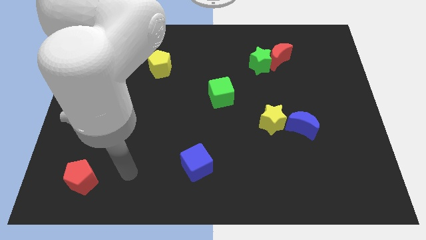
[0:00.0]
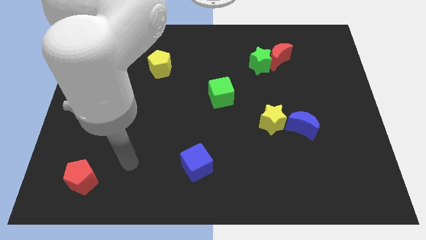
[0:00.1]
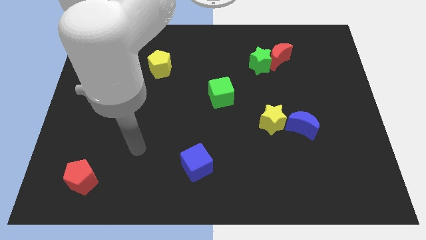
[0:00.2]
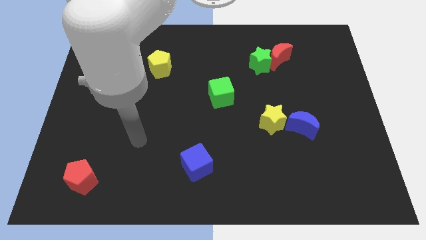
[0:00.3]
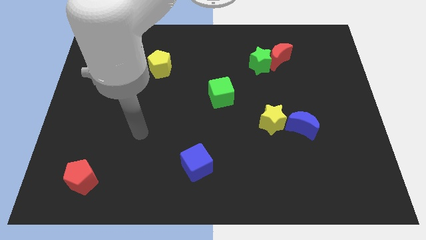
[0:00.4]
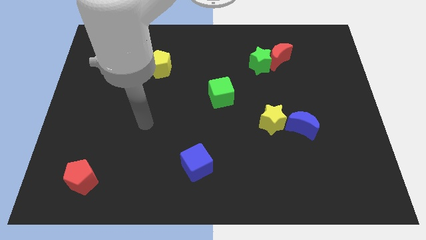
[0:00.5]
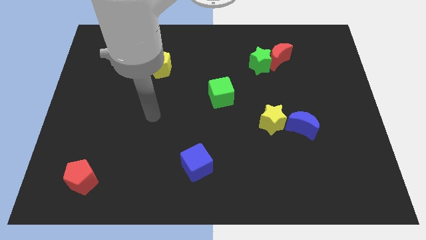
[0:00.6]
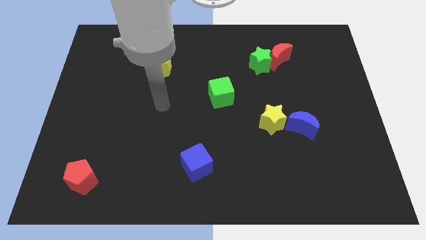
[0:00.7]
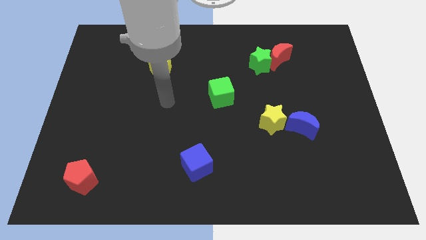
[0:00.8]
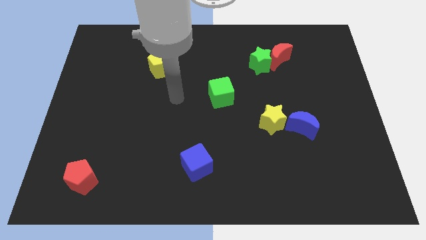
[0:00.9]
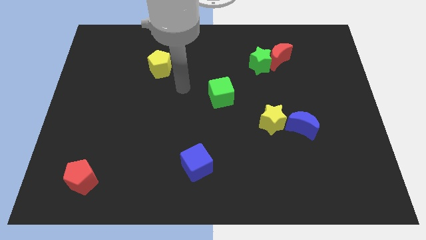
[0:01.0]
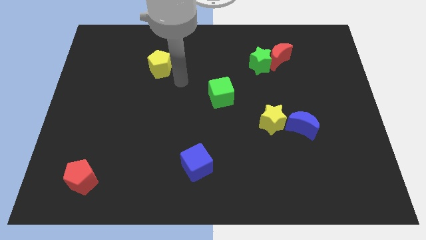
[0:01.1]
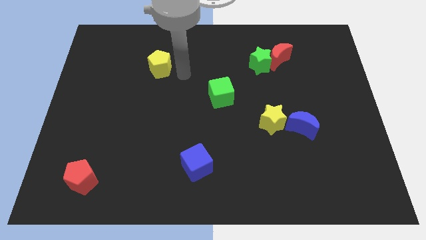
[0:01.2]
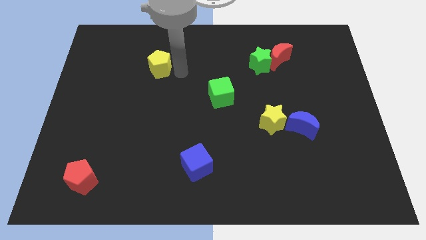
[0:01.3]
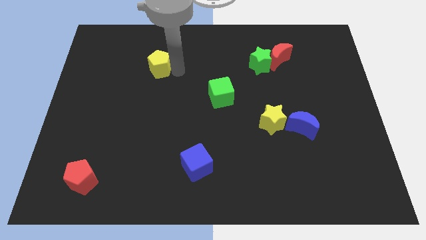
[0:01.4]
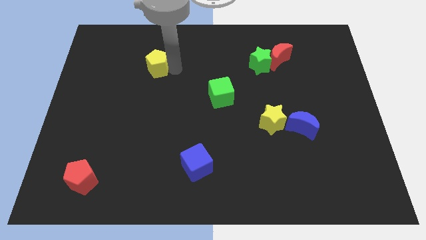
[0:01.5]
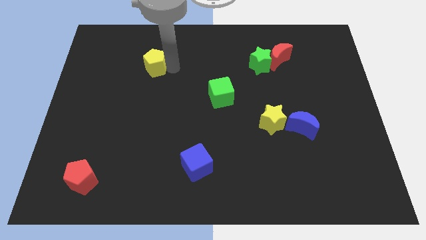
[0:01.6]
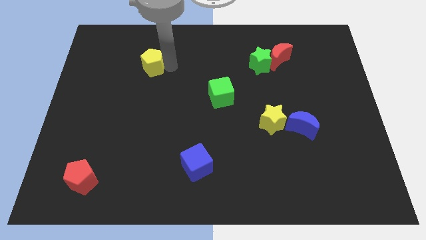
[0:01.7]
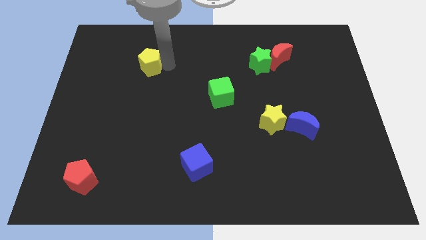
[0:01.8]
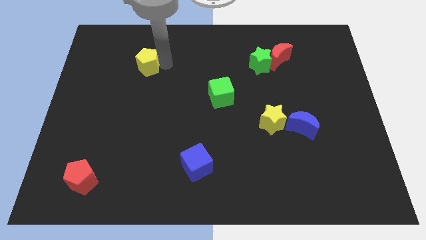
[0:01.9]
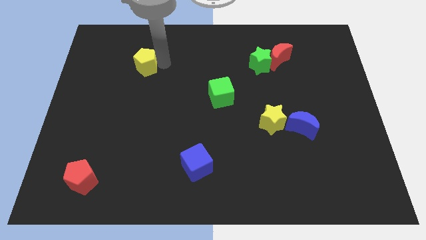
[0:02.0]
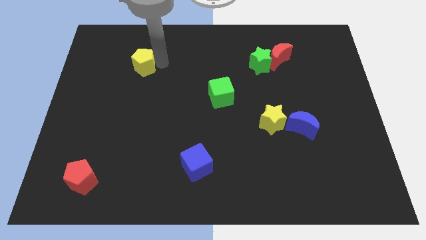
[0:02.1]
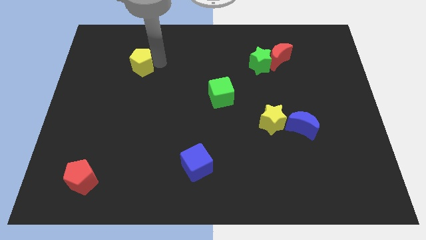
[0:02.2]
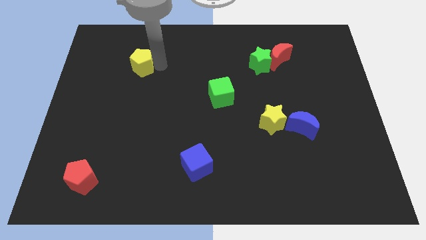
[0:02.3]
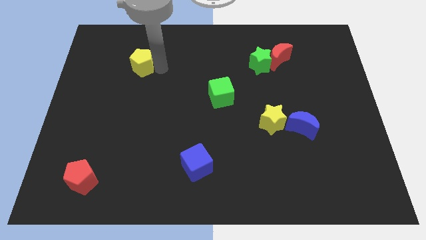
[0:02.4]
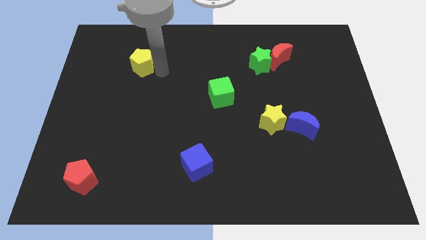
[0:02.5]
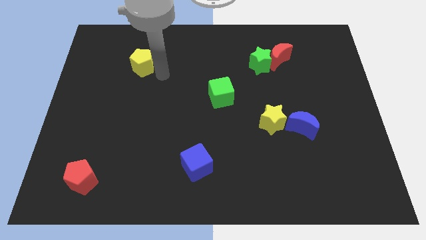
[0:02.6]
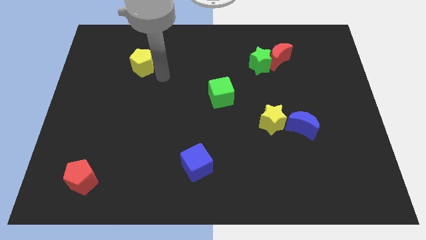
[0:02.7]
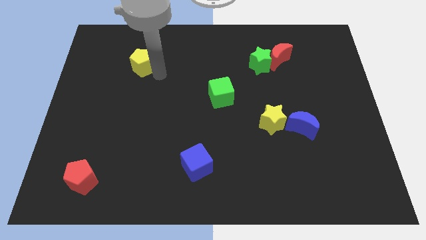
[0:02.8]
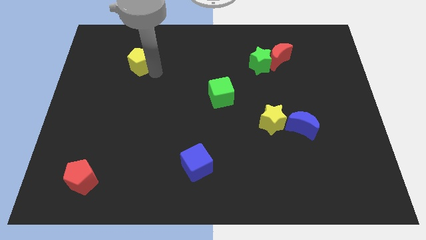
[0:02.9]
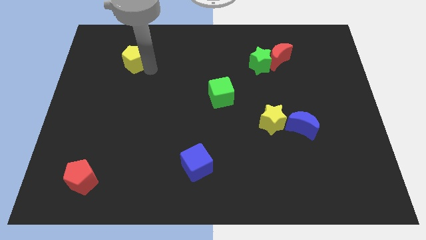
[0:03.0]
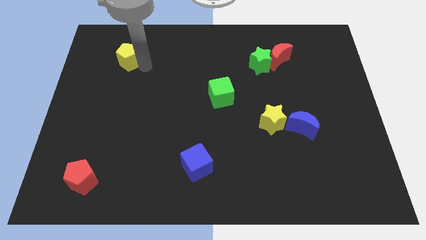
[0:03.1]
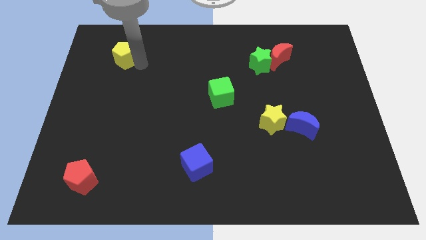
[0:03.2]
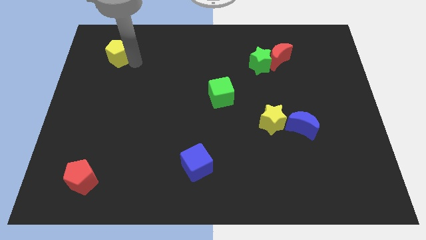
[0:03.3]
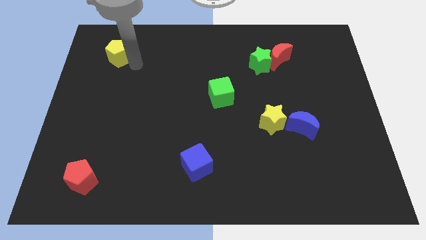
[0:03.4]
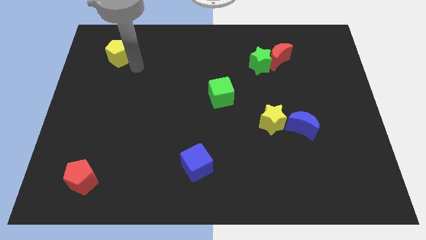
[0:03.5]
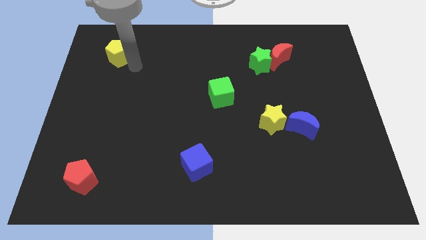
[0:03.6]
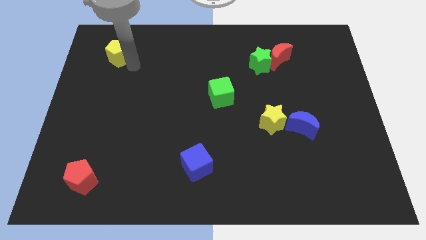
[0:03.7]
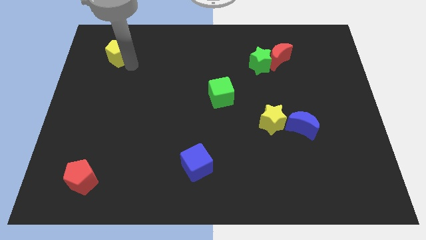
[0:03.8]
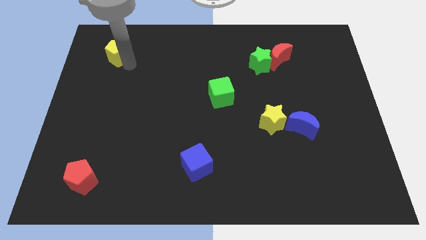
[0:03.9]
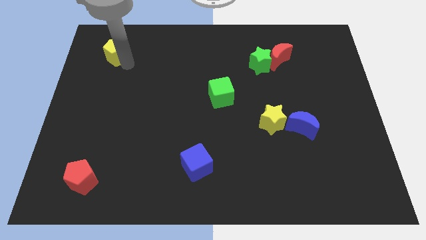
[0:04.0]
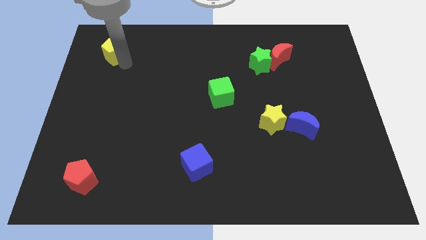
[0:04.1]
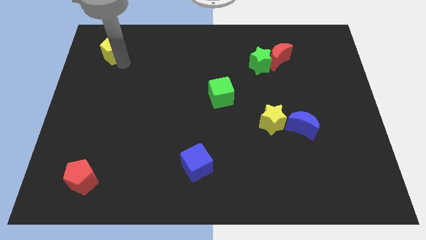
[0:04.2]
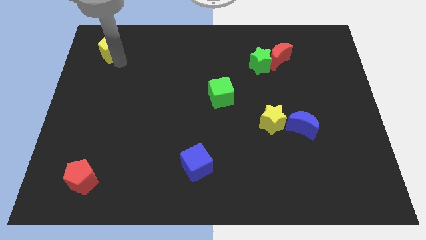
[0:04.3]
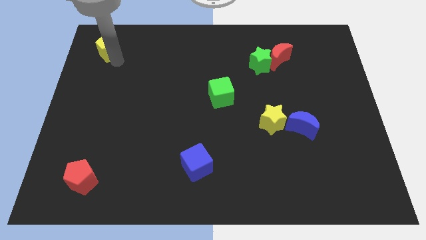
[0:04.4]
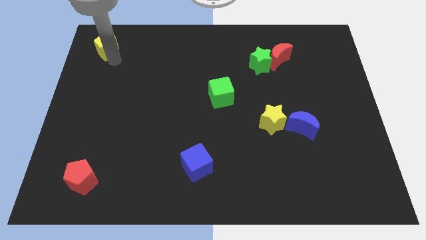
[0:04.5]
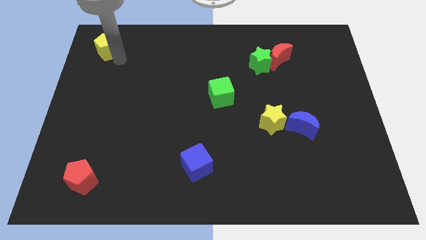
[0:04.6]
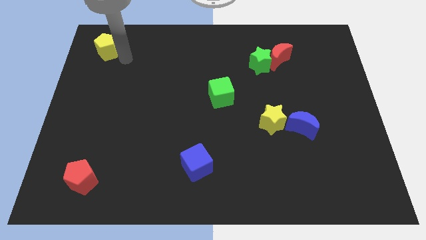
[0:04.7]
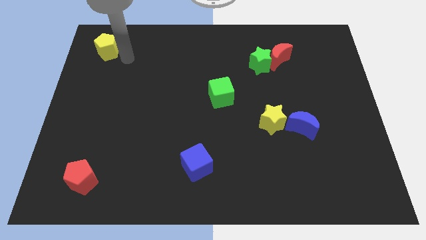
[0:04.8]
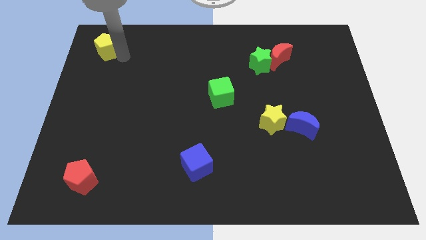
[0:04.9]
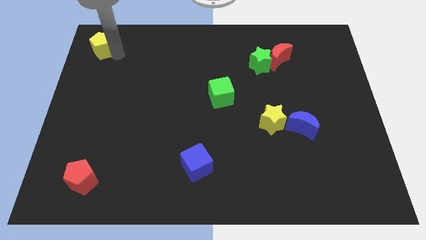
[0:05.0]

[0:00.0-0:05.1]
push the yellow pentagon to the top left corner

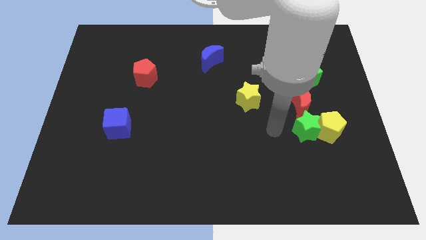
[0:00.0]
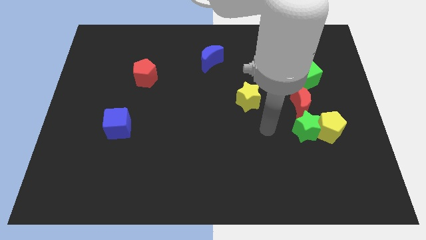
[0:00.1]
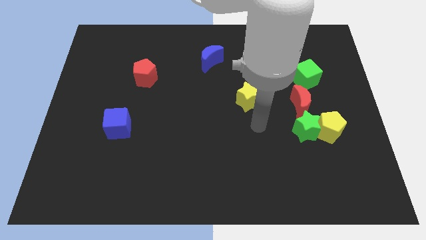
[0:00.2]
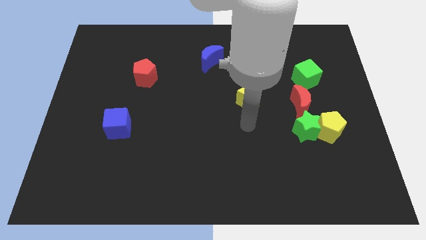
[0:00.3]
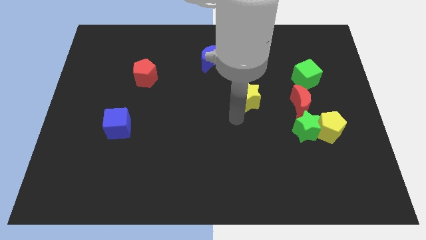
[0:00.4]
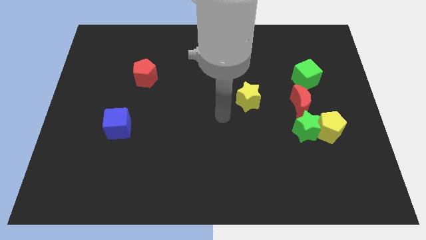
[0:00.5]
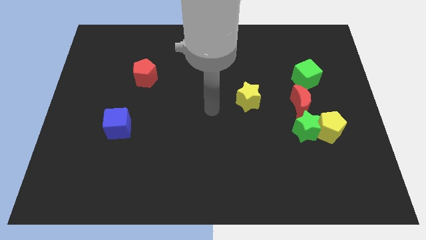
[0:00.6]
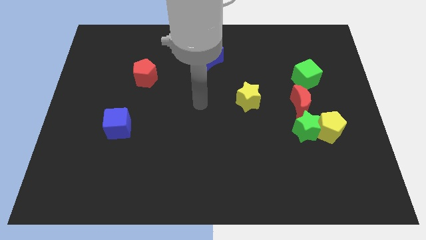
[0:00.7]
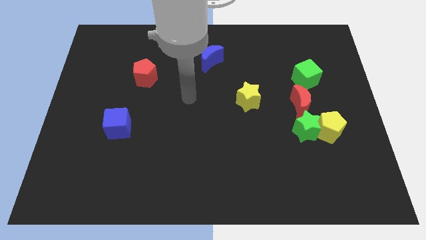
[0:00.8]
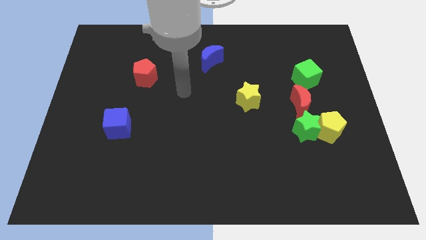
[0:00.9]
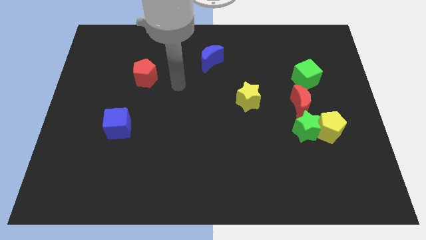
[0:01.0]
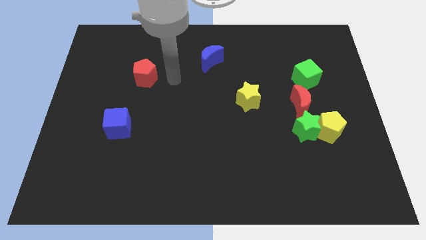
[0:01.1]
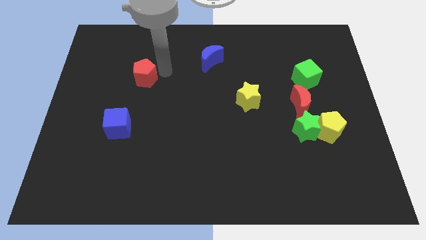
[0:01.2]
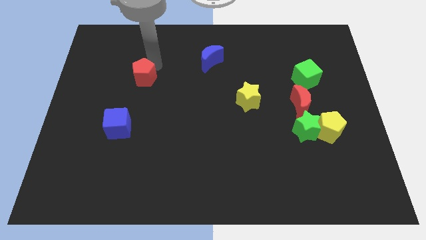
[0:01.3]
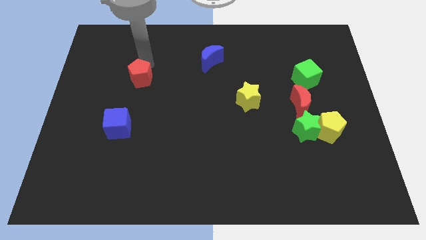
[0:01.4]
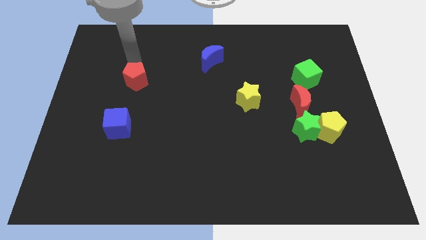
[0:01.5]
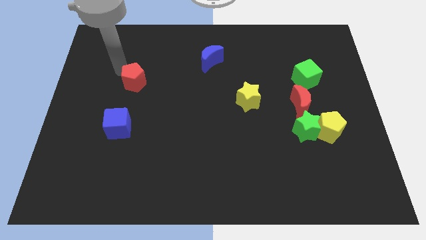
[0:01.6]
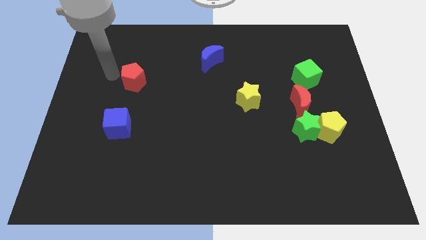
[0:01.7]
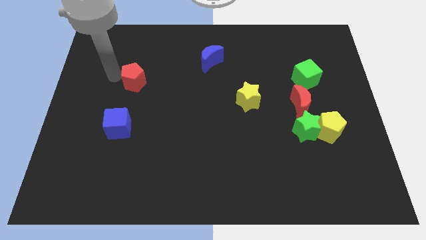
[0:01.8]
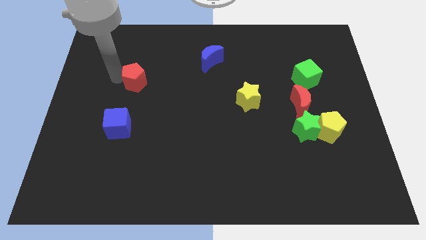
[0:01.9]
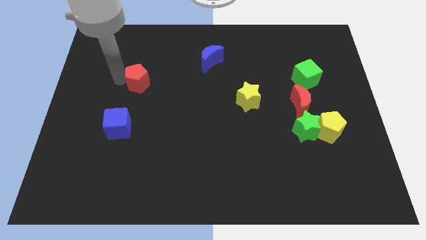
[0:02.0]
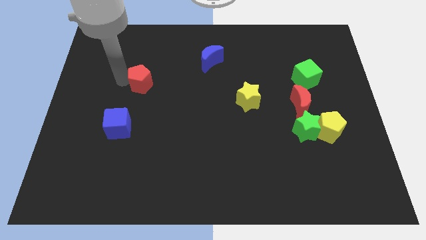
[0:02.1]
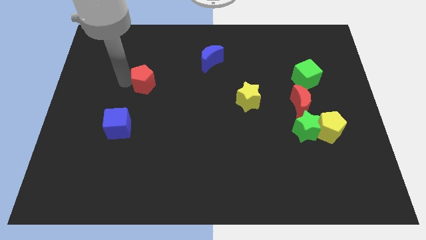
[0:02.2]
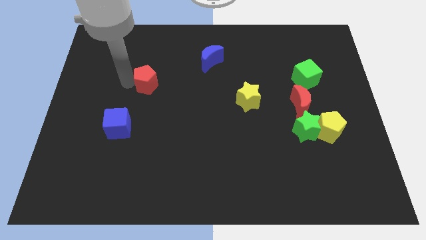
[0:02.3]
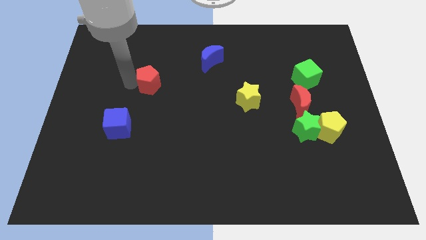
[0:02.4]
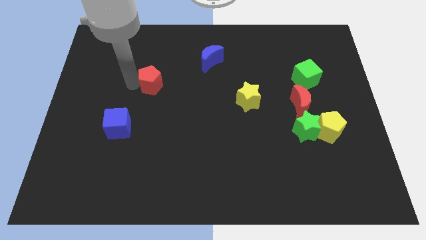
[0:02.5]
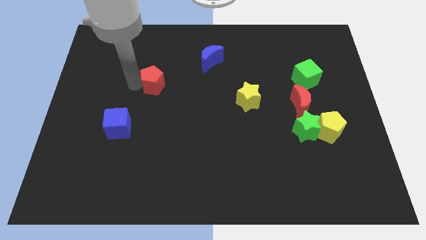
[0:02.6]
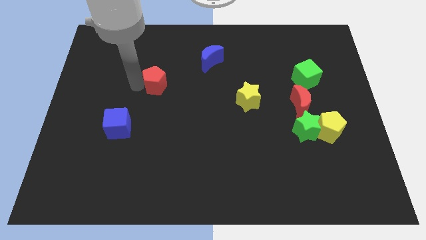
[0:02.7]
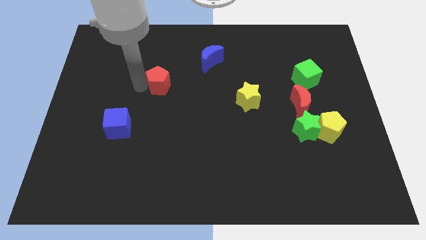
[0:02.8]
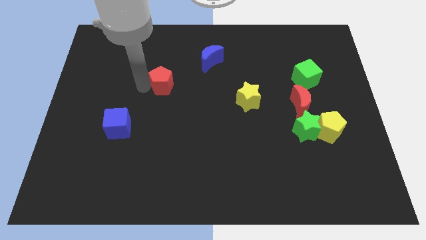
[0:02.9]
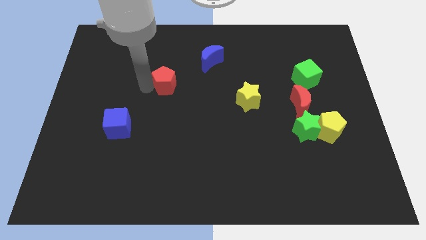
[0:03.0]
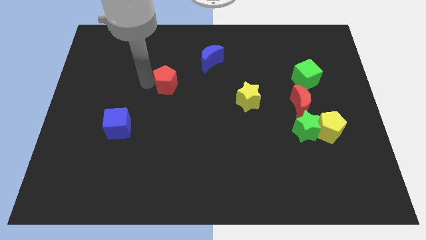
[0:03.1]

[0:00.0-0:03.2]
put the red pentagon to the center of the board
